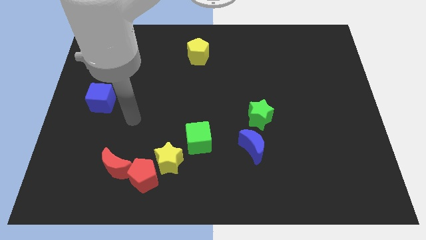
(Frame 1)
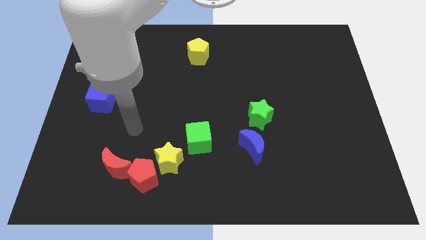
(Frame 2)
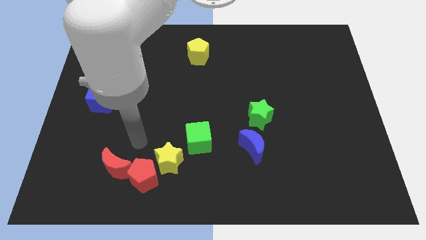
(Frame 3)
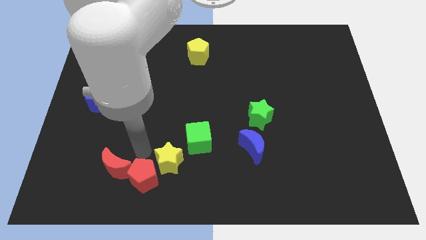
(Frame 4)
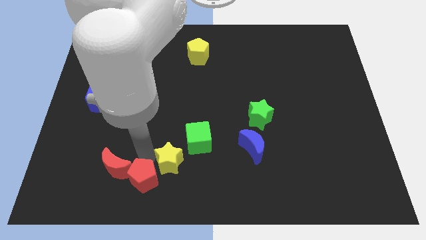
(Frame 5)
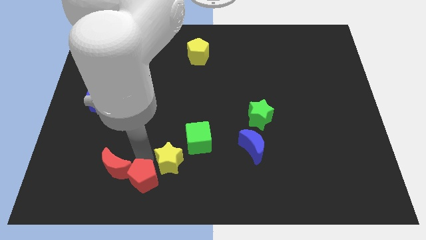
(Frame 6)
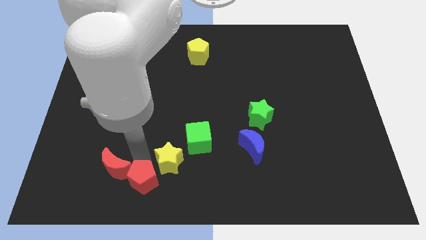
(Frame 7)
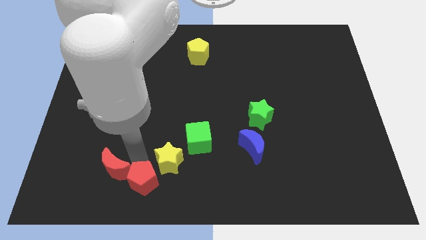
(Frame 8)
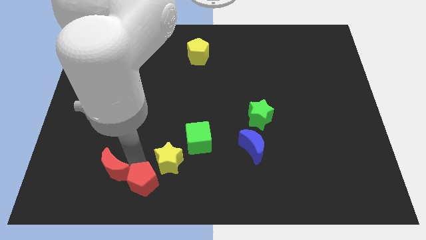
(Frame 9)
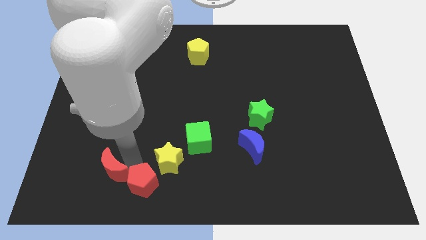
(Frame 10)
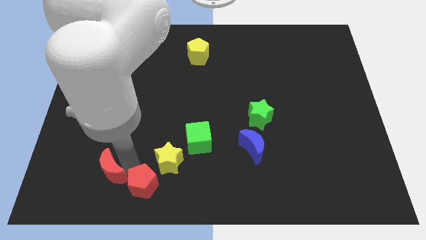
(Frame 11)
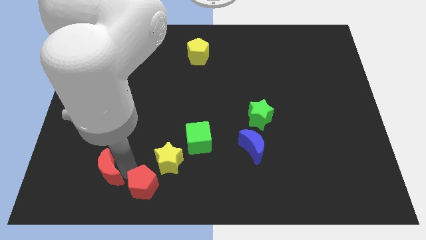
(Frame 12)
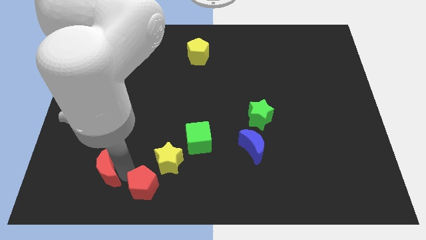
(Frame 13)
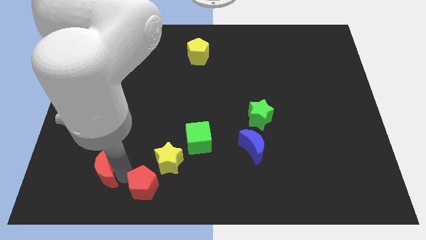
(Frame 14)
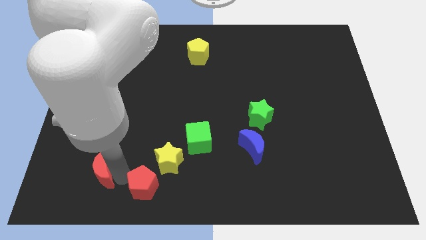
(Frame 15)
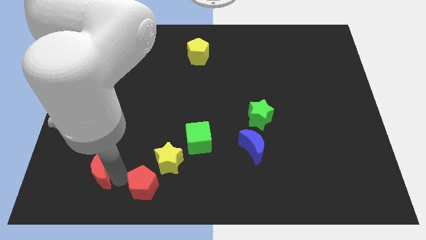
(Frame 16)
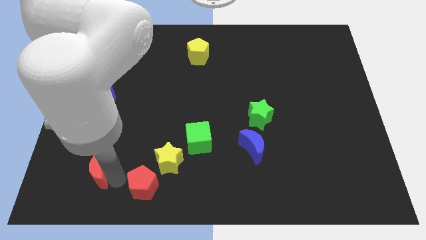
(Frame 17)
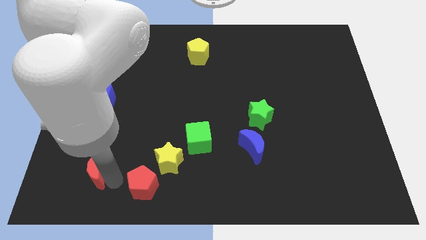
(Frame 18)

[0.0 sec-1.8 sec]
move the red moon away from the red pentagon

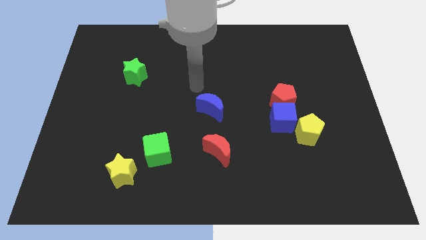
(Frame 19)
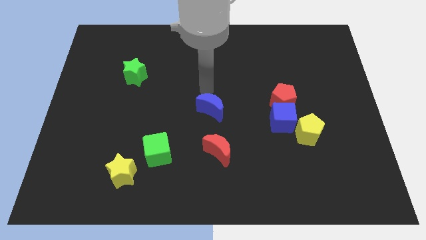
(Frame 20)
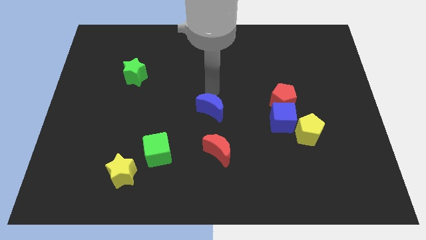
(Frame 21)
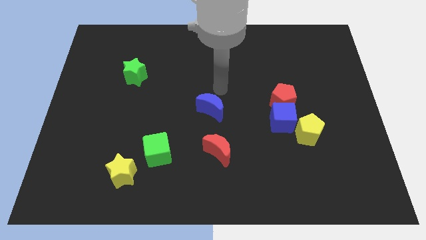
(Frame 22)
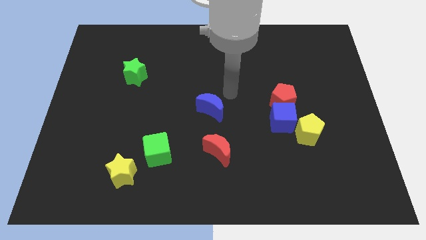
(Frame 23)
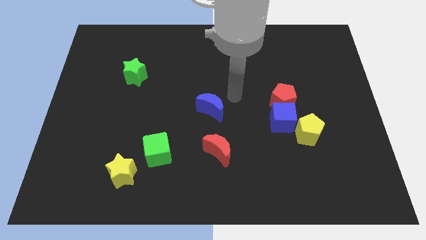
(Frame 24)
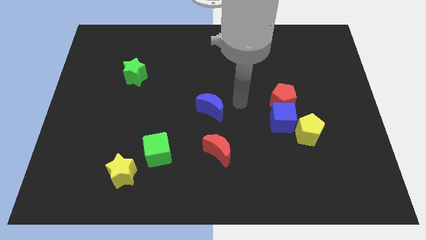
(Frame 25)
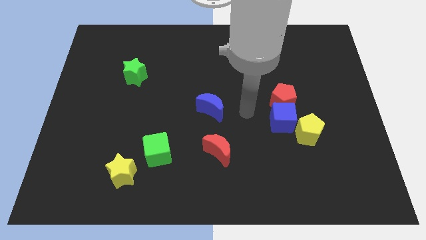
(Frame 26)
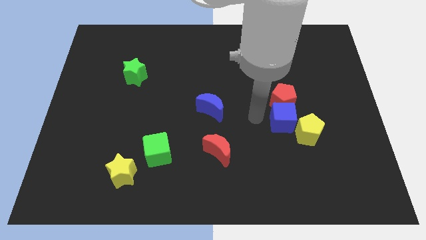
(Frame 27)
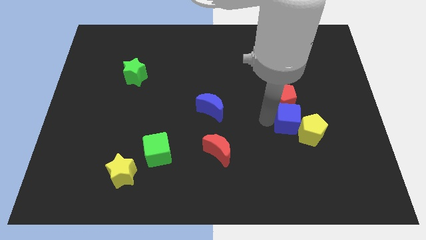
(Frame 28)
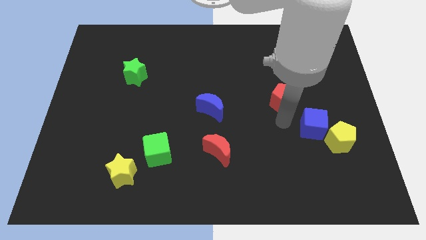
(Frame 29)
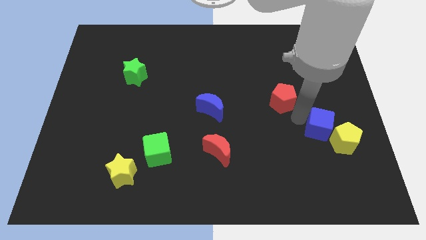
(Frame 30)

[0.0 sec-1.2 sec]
pull the red pentagon apart from the blue cube

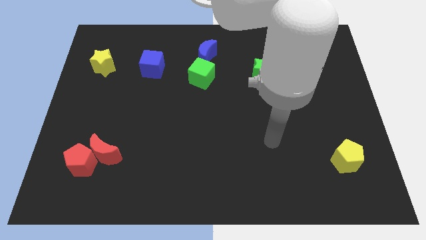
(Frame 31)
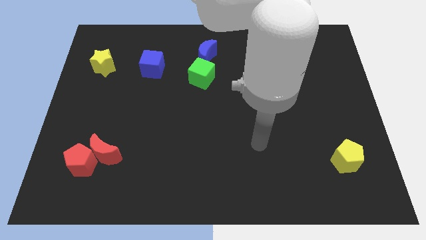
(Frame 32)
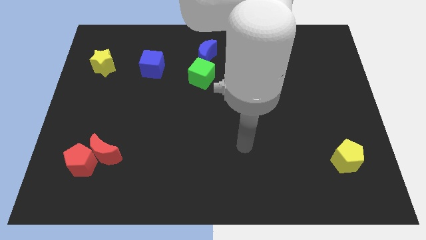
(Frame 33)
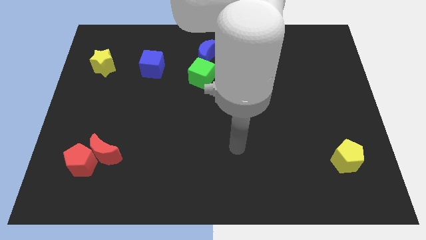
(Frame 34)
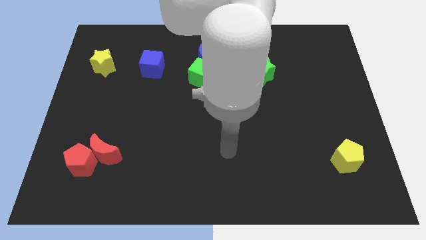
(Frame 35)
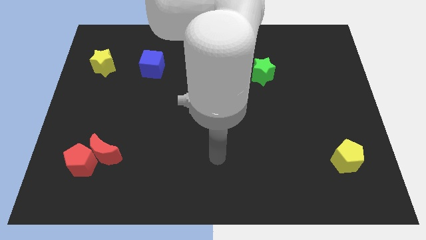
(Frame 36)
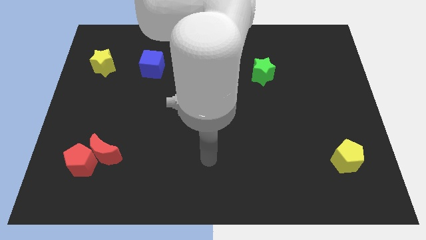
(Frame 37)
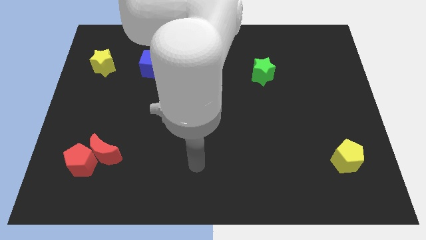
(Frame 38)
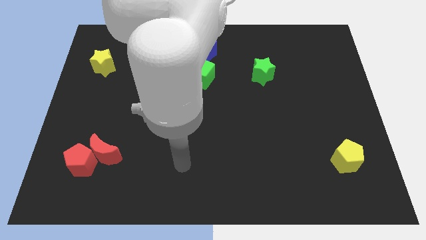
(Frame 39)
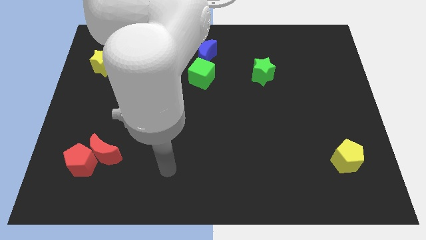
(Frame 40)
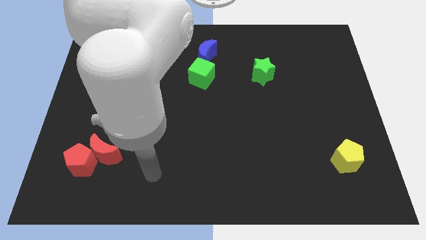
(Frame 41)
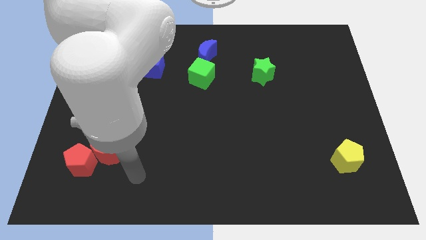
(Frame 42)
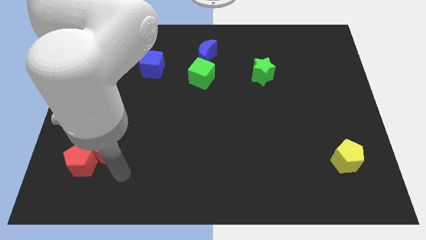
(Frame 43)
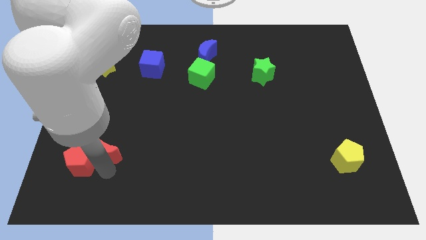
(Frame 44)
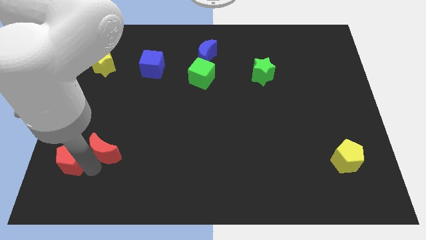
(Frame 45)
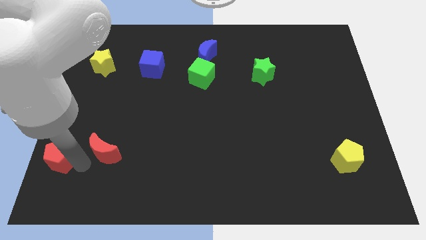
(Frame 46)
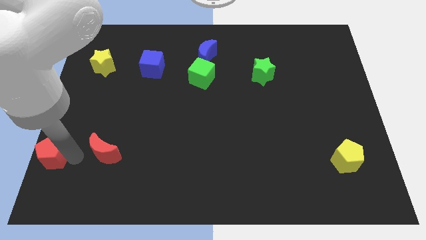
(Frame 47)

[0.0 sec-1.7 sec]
separate the red moon from the red pentagon

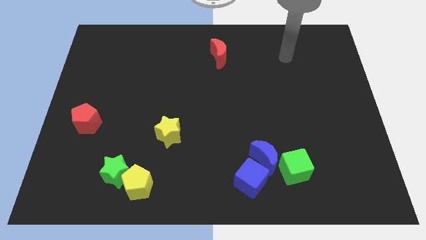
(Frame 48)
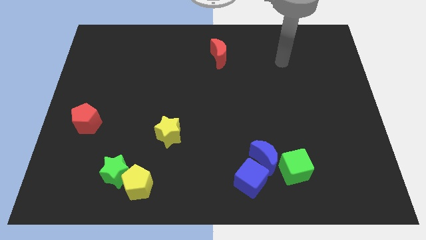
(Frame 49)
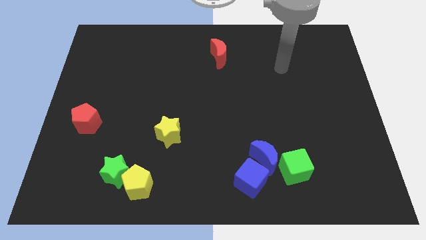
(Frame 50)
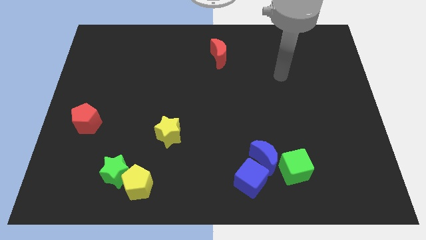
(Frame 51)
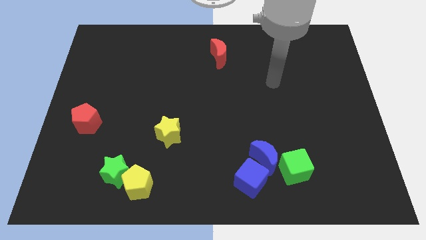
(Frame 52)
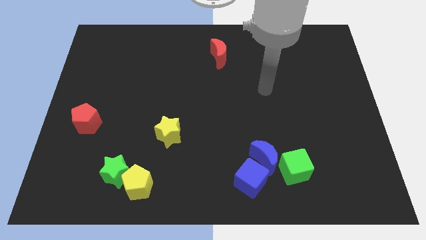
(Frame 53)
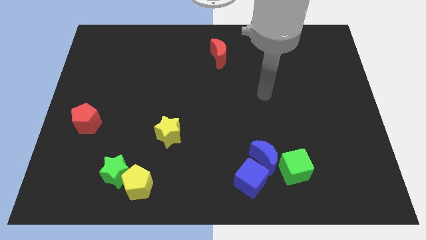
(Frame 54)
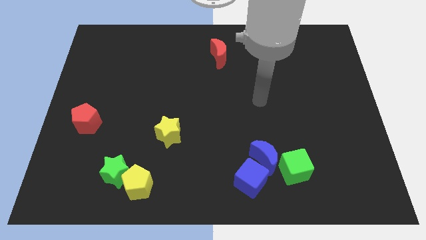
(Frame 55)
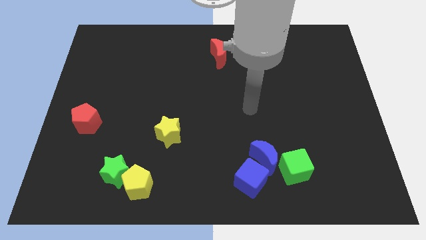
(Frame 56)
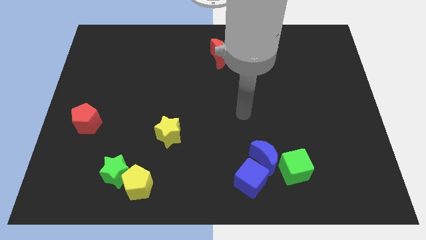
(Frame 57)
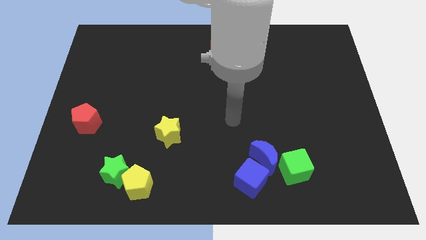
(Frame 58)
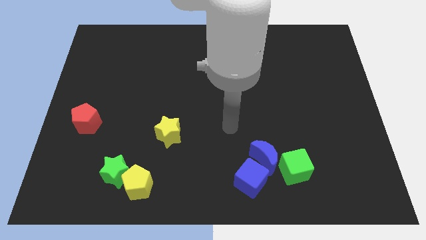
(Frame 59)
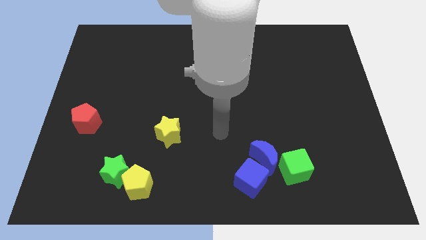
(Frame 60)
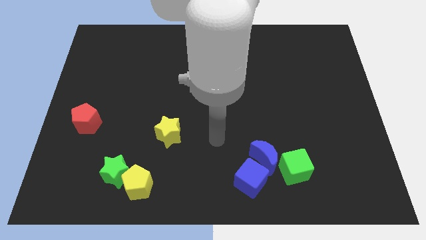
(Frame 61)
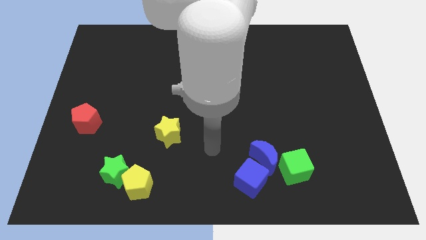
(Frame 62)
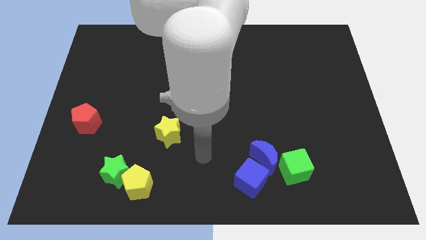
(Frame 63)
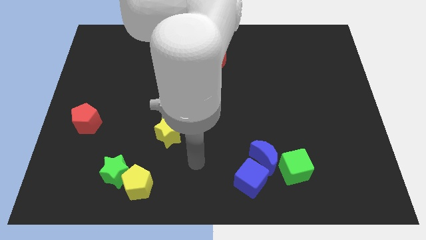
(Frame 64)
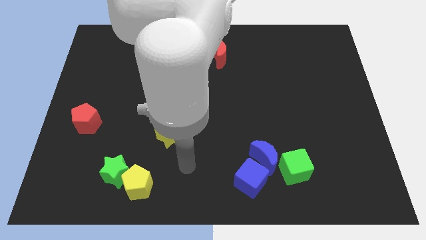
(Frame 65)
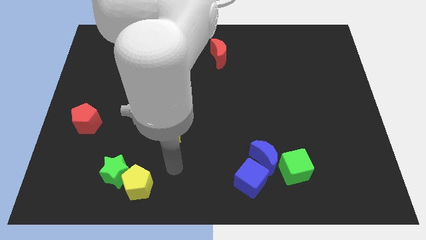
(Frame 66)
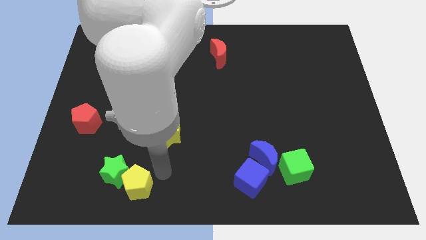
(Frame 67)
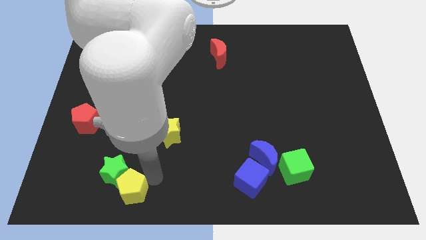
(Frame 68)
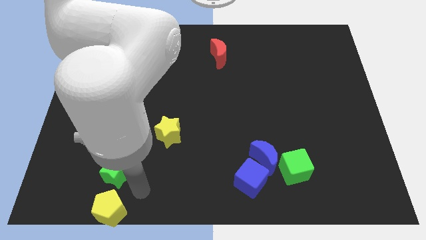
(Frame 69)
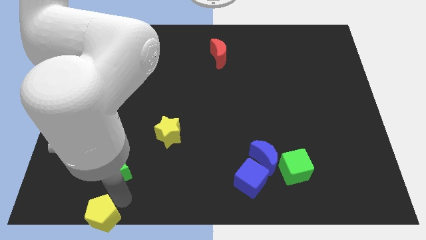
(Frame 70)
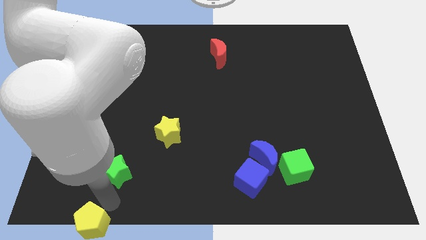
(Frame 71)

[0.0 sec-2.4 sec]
pull the green star apart from the yellow pentagon

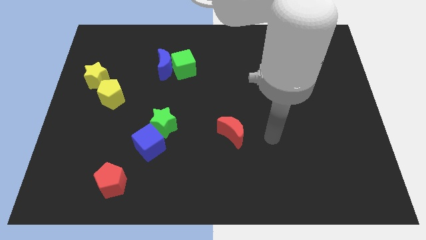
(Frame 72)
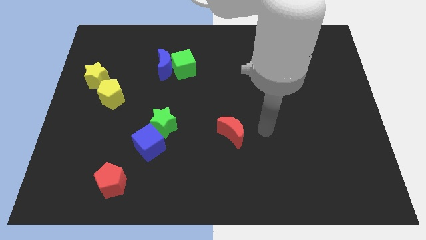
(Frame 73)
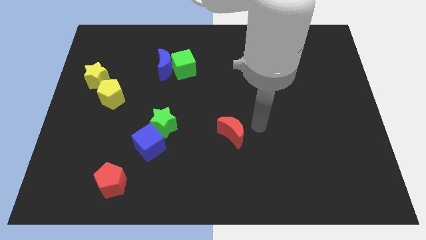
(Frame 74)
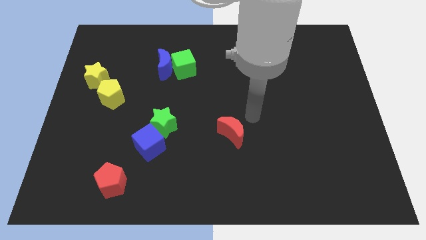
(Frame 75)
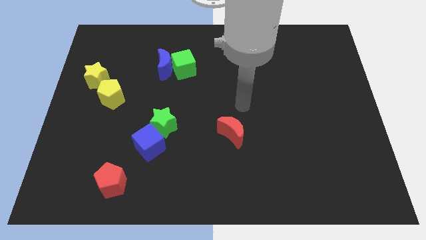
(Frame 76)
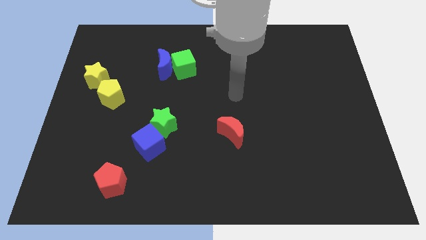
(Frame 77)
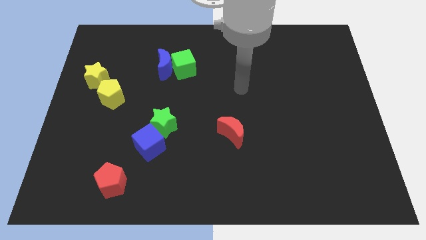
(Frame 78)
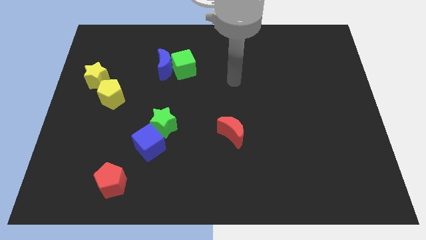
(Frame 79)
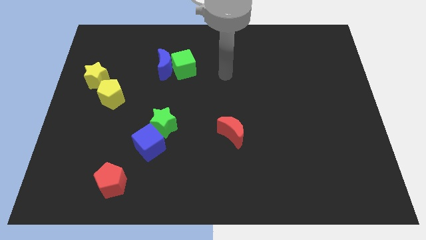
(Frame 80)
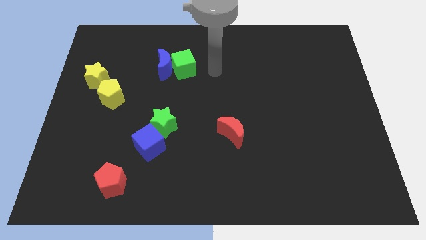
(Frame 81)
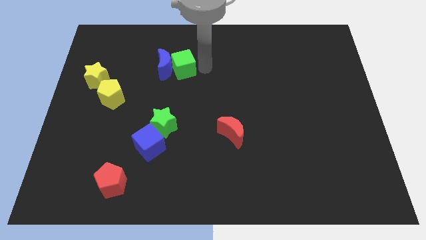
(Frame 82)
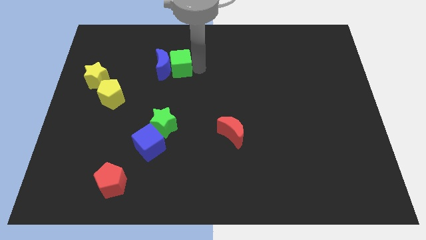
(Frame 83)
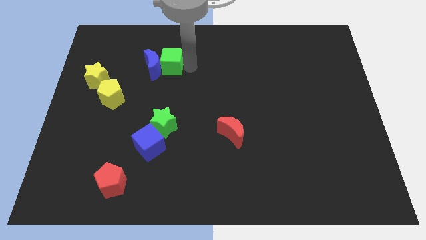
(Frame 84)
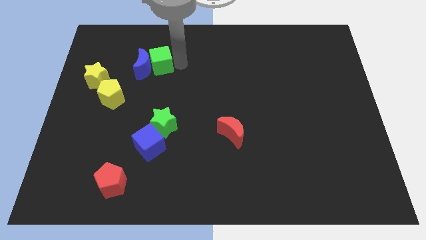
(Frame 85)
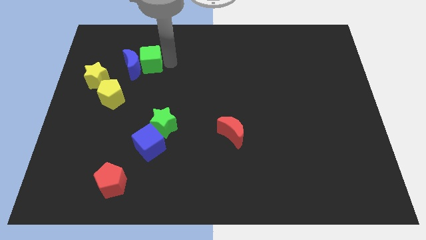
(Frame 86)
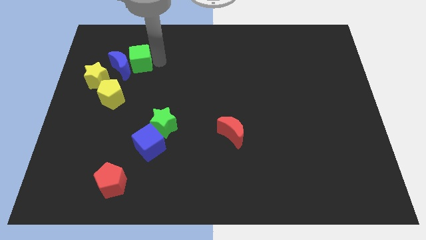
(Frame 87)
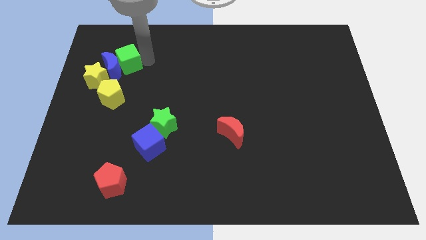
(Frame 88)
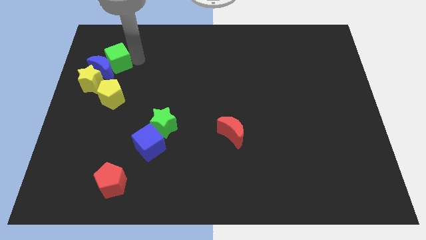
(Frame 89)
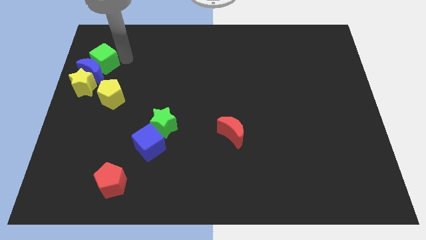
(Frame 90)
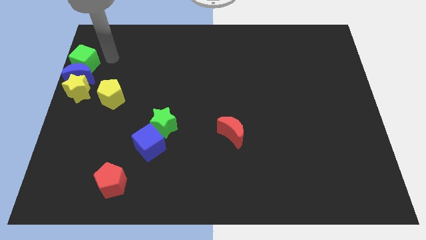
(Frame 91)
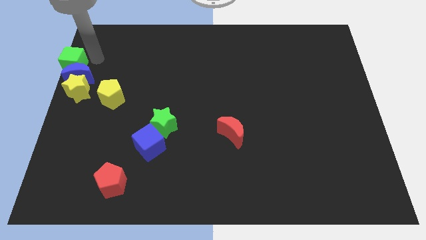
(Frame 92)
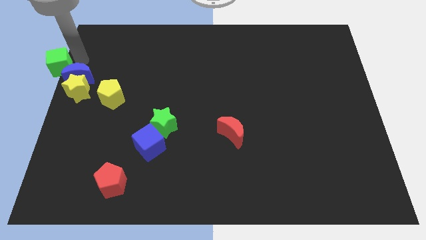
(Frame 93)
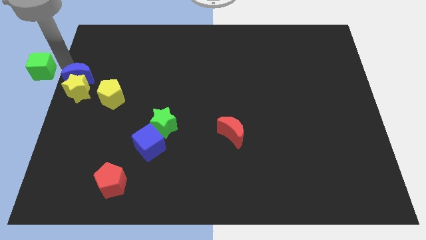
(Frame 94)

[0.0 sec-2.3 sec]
move the blue moon away from the green cube
